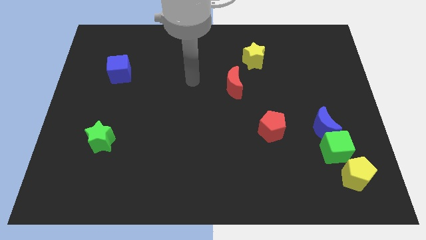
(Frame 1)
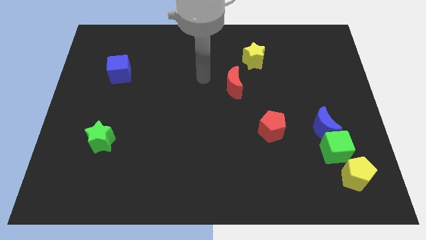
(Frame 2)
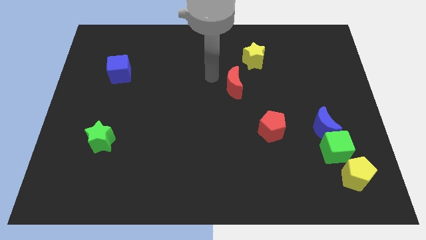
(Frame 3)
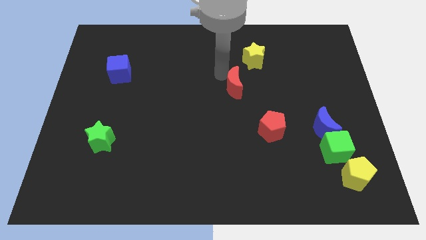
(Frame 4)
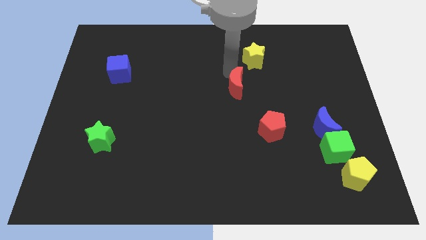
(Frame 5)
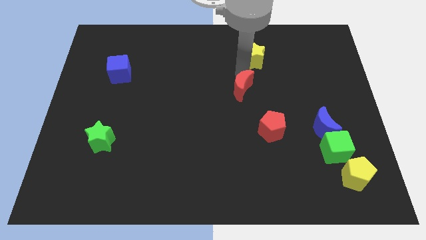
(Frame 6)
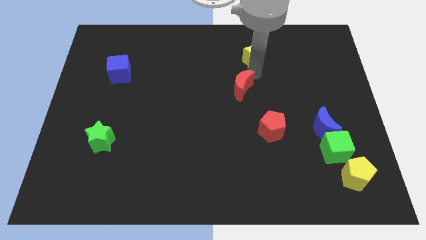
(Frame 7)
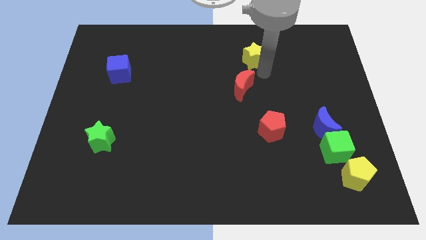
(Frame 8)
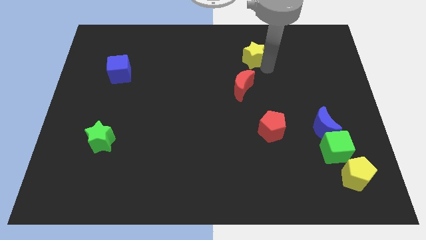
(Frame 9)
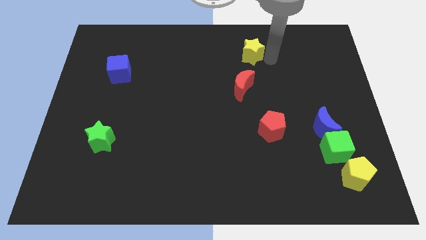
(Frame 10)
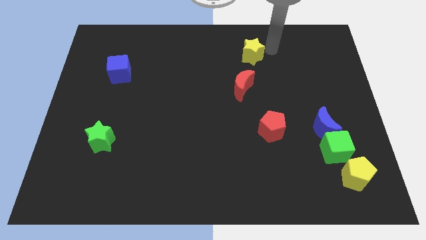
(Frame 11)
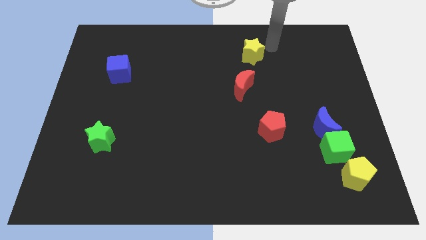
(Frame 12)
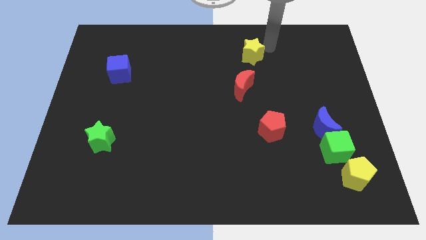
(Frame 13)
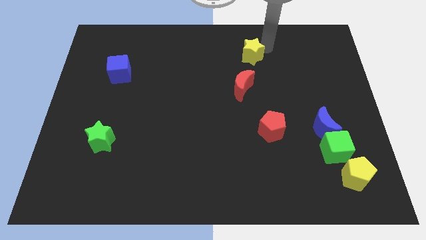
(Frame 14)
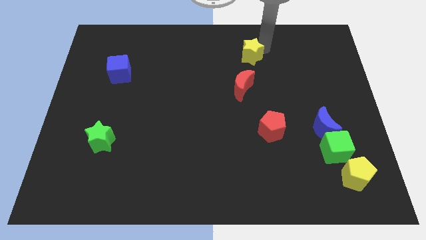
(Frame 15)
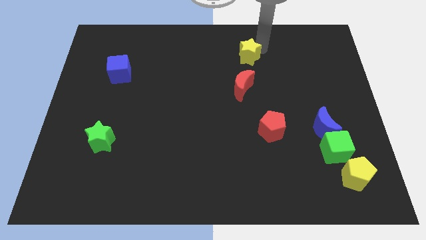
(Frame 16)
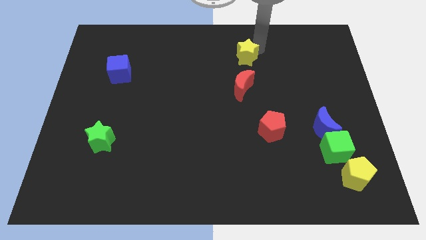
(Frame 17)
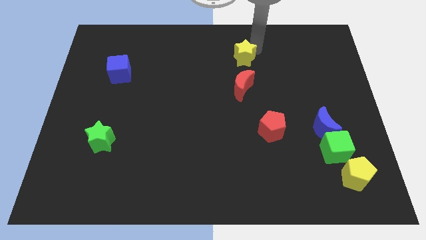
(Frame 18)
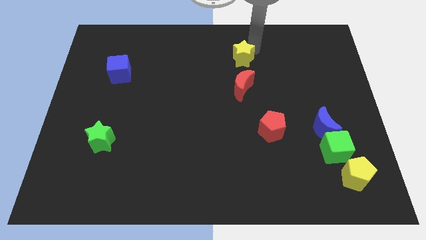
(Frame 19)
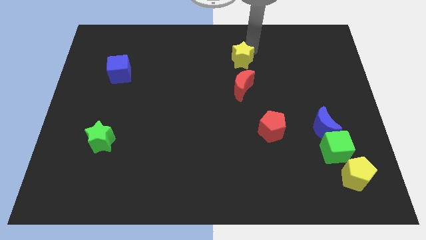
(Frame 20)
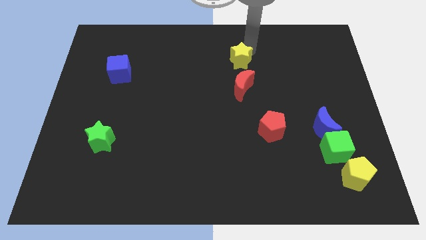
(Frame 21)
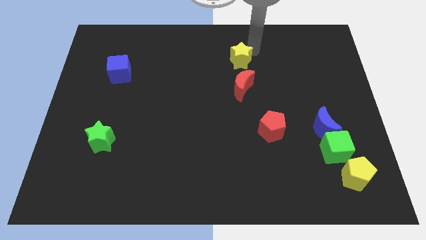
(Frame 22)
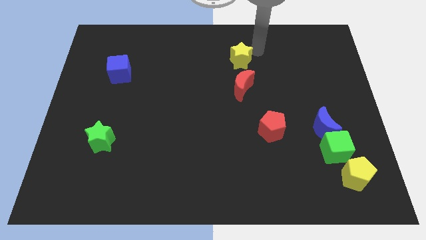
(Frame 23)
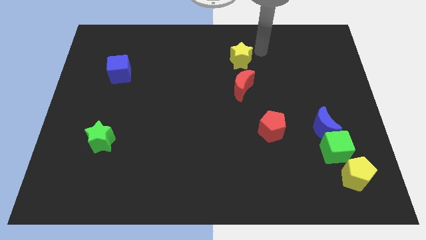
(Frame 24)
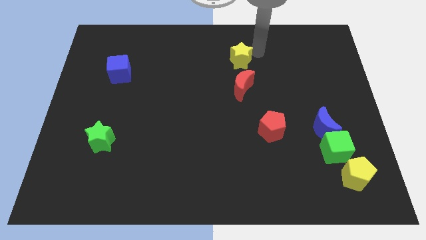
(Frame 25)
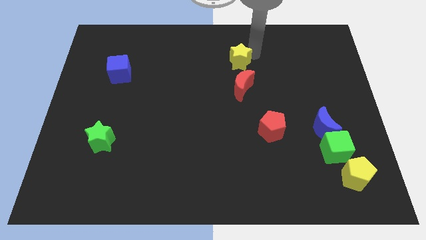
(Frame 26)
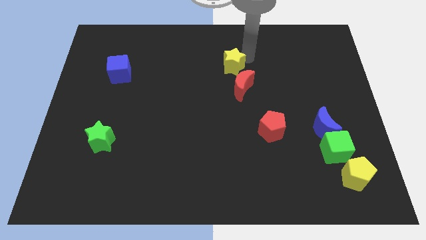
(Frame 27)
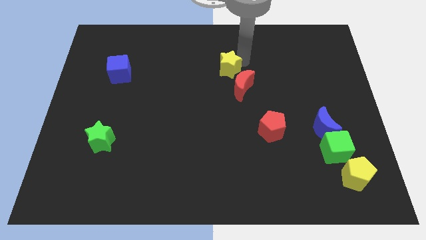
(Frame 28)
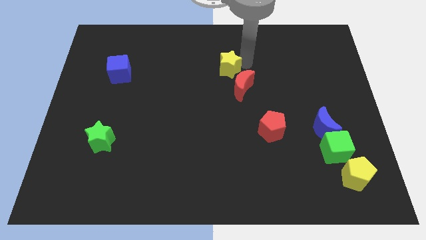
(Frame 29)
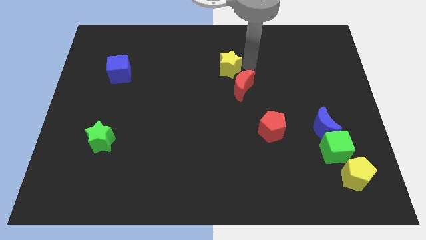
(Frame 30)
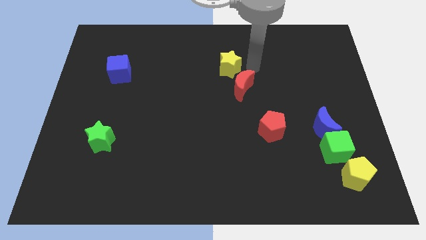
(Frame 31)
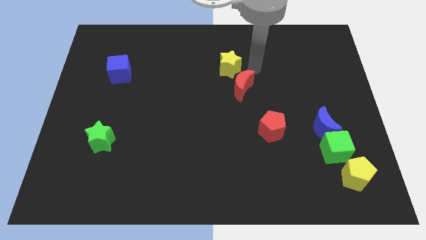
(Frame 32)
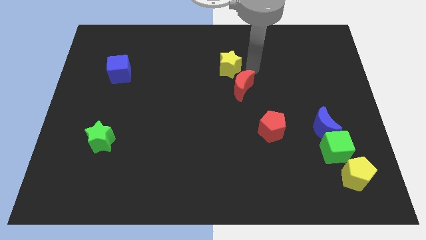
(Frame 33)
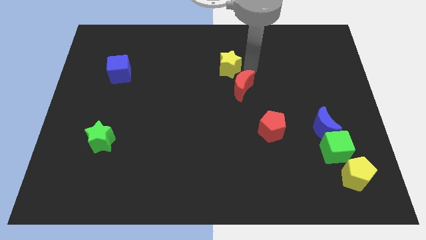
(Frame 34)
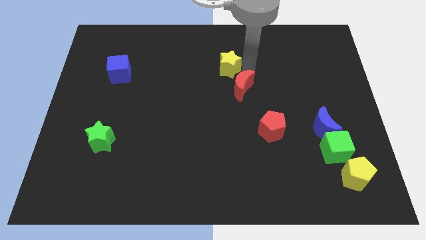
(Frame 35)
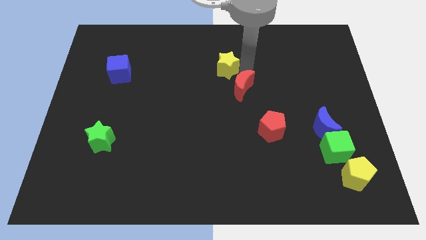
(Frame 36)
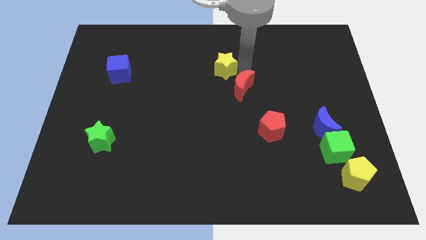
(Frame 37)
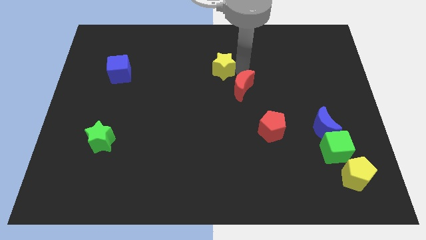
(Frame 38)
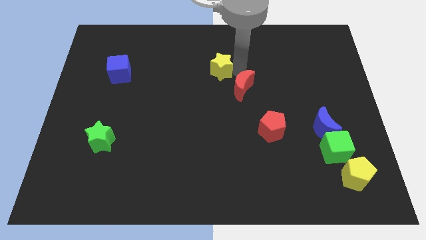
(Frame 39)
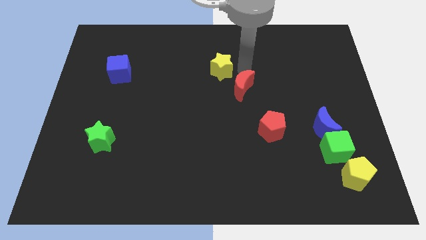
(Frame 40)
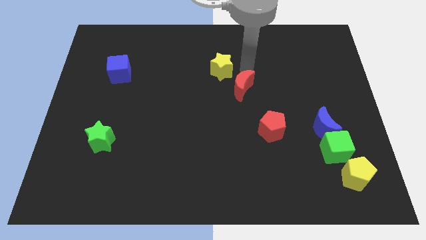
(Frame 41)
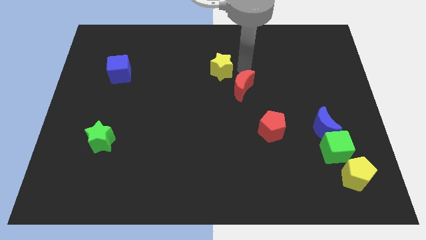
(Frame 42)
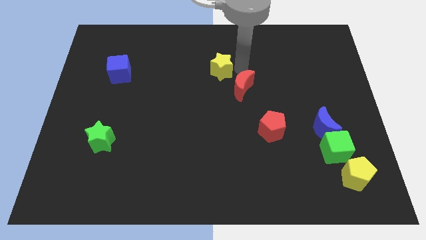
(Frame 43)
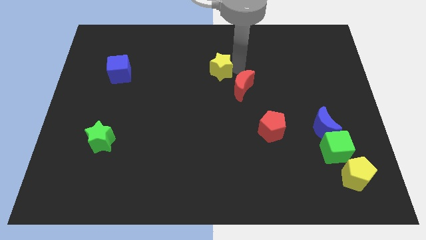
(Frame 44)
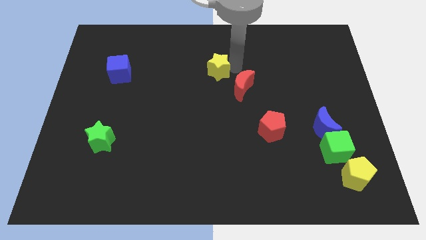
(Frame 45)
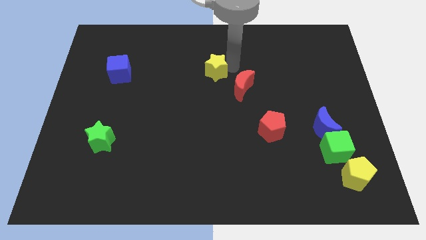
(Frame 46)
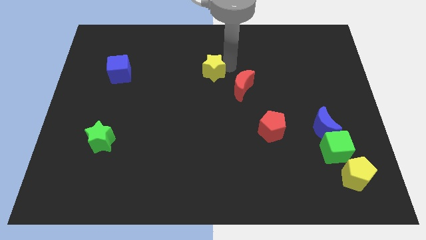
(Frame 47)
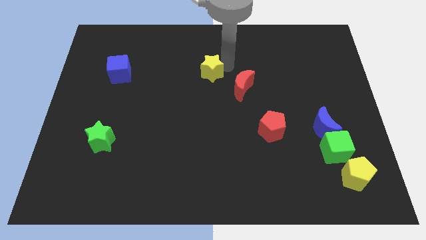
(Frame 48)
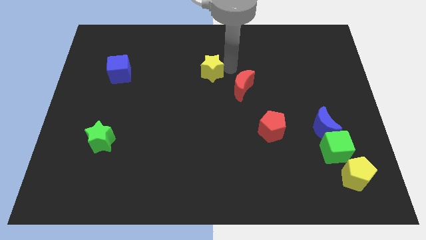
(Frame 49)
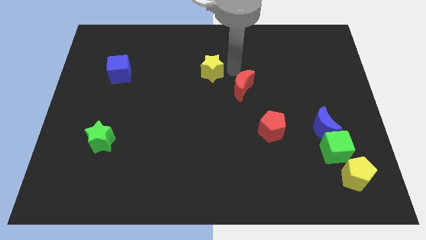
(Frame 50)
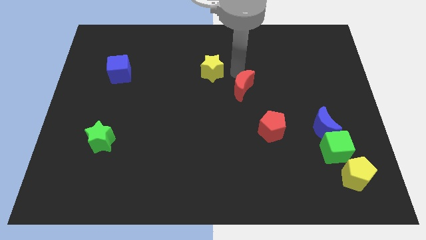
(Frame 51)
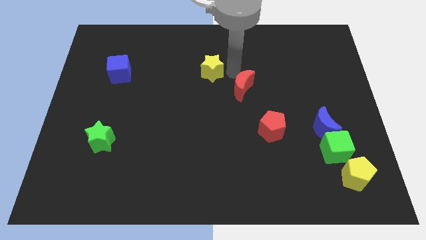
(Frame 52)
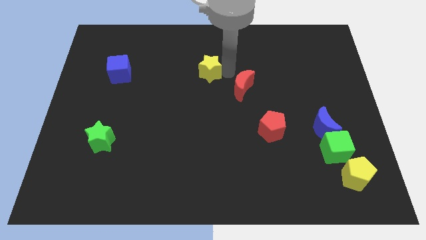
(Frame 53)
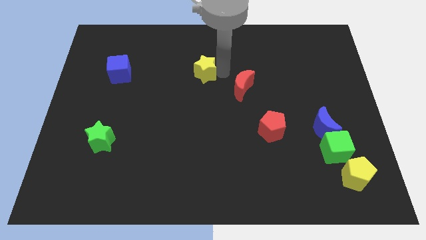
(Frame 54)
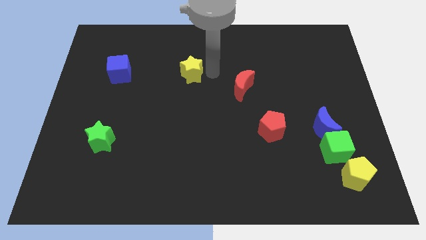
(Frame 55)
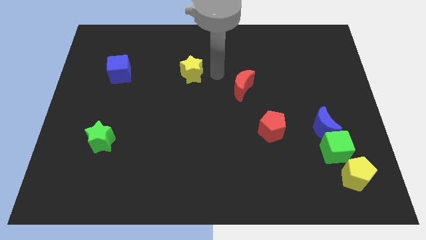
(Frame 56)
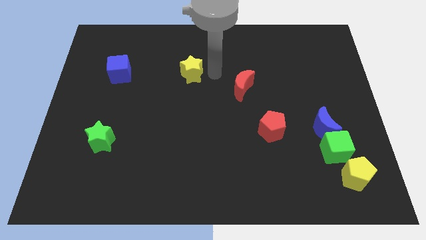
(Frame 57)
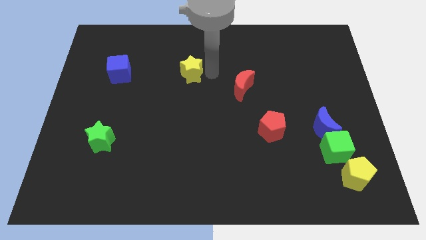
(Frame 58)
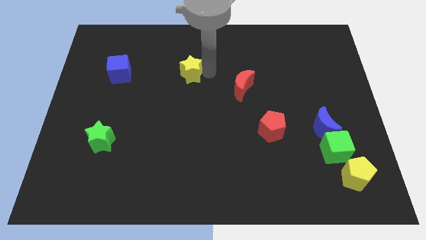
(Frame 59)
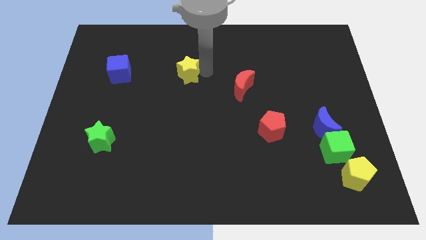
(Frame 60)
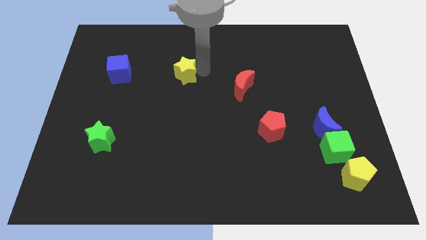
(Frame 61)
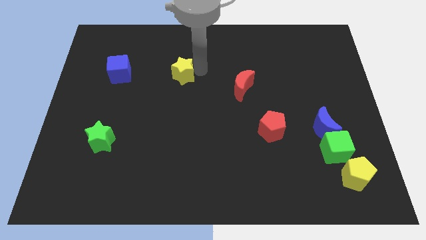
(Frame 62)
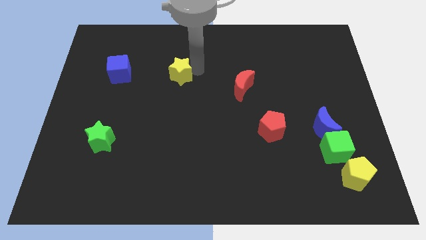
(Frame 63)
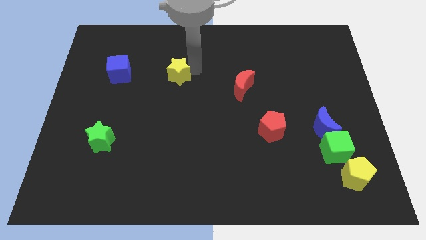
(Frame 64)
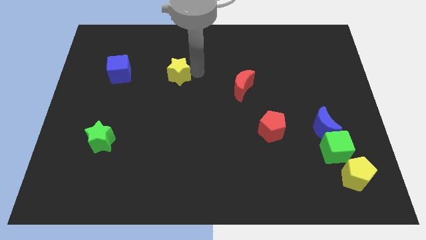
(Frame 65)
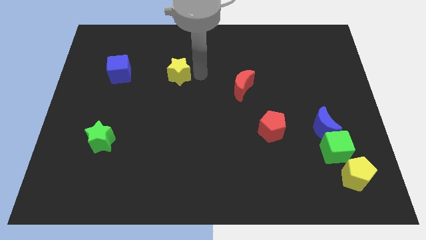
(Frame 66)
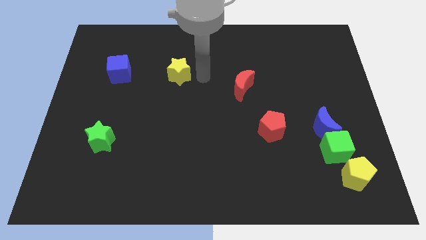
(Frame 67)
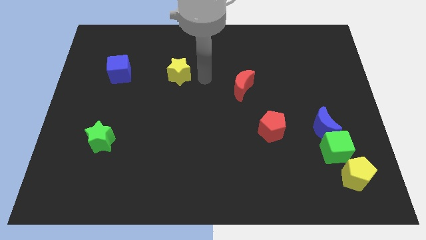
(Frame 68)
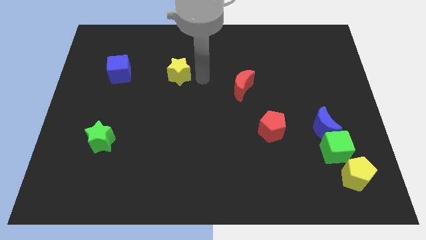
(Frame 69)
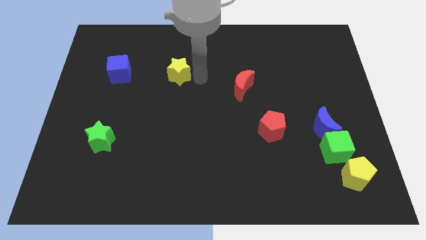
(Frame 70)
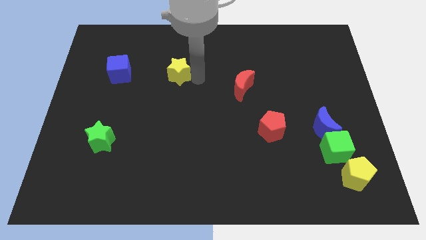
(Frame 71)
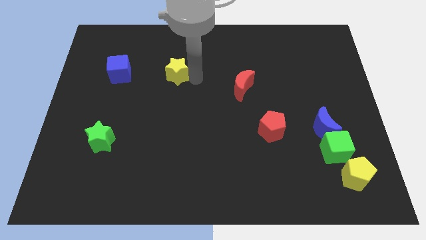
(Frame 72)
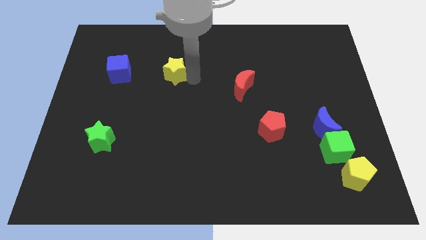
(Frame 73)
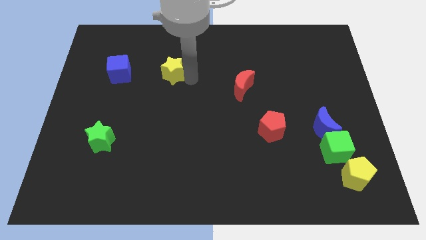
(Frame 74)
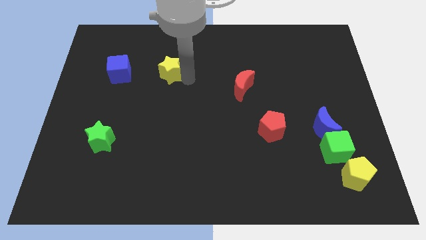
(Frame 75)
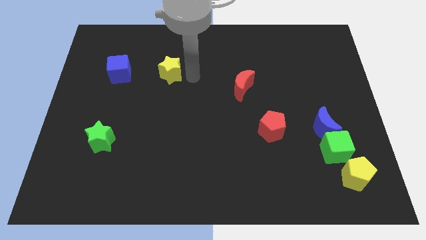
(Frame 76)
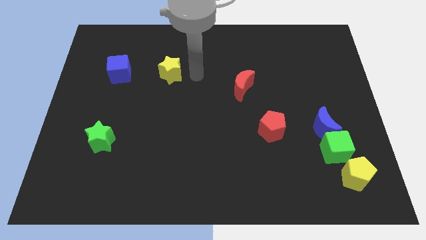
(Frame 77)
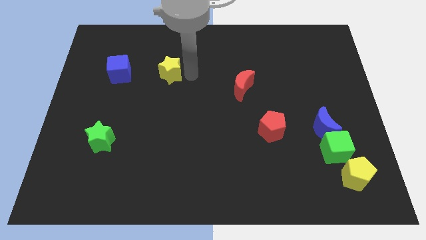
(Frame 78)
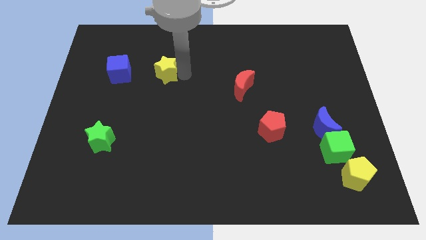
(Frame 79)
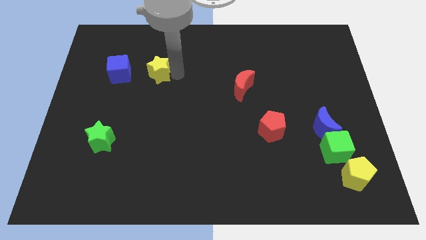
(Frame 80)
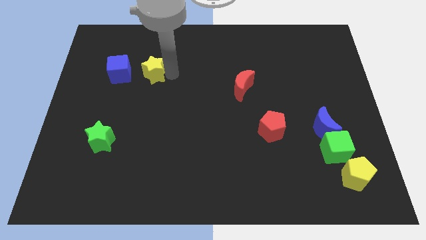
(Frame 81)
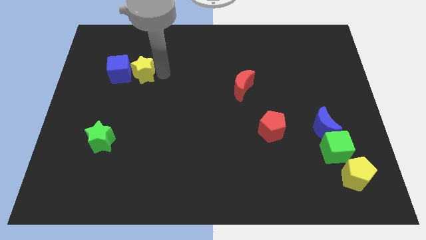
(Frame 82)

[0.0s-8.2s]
put the yellow star close to the blue cube
